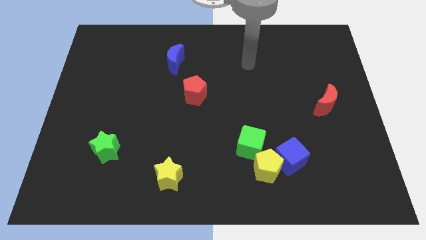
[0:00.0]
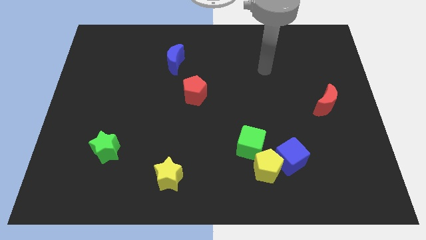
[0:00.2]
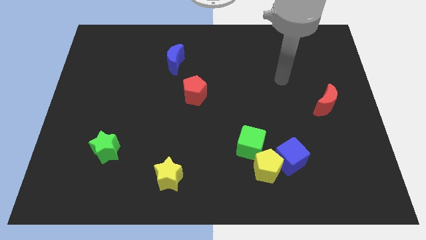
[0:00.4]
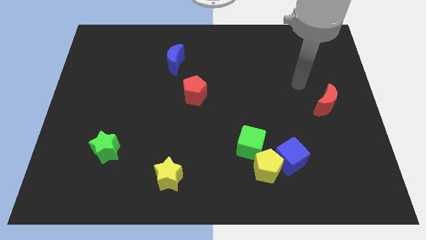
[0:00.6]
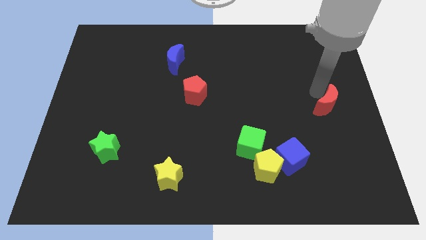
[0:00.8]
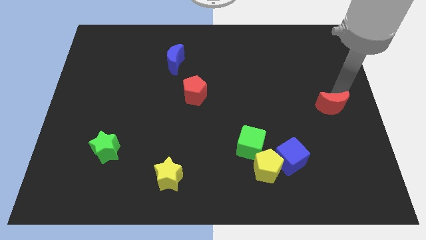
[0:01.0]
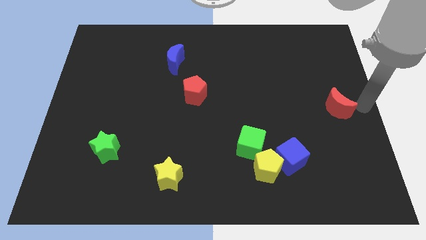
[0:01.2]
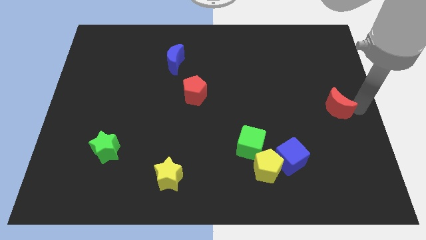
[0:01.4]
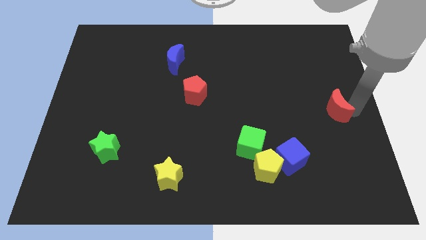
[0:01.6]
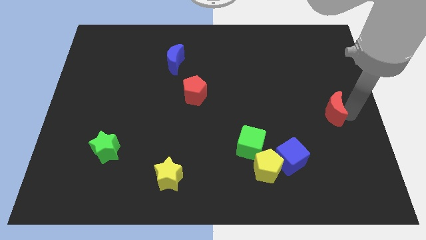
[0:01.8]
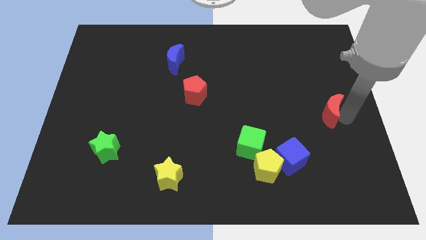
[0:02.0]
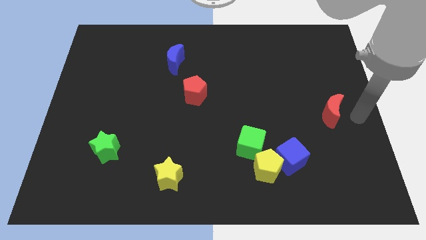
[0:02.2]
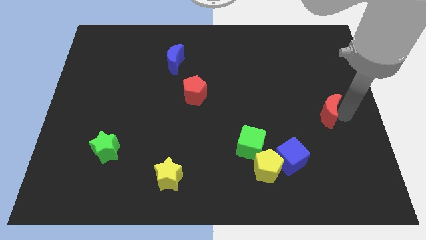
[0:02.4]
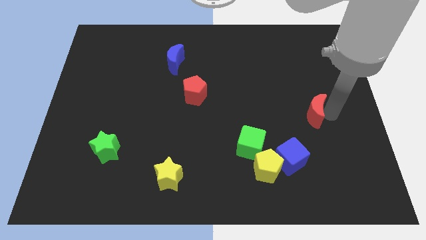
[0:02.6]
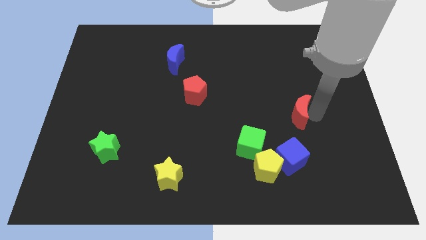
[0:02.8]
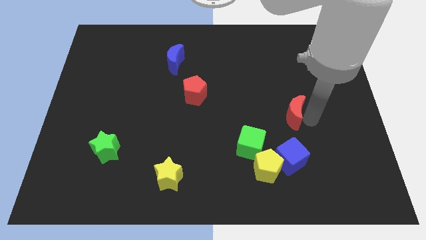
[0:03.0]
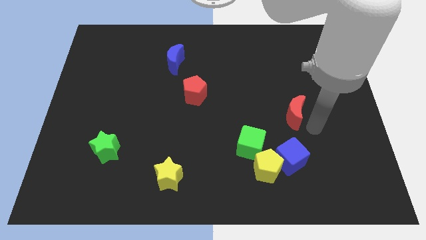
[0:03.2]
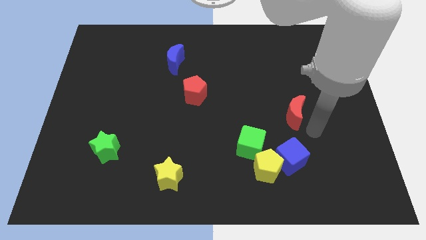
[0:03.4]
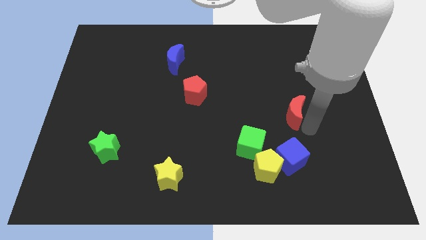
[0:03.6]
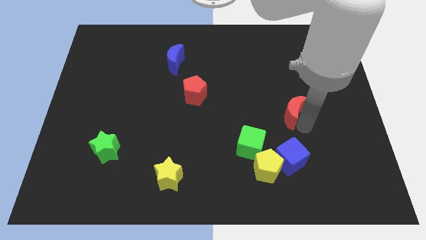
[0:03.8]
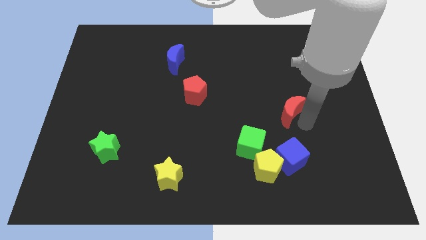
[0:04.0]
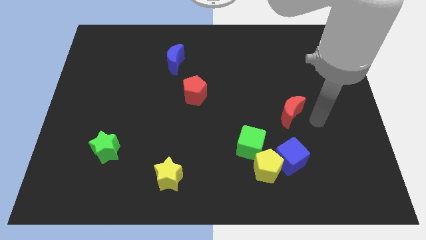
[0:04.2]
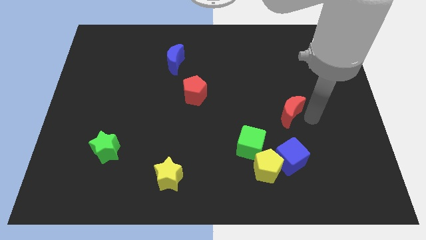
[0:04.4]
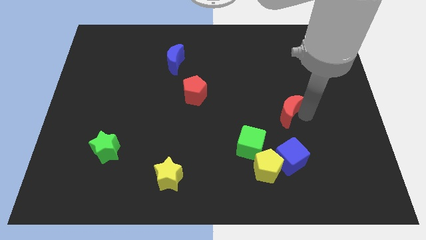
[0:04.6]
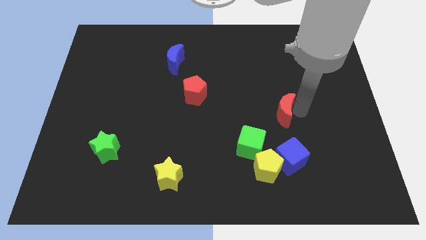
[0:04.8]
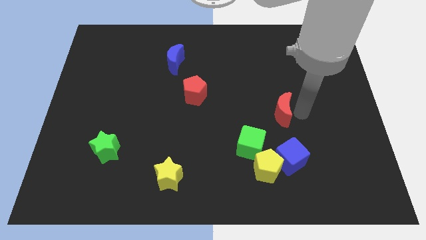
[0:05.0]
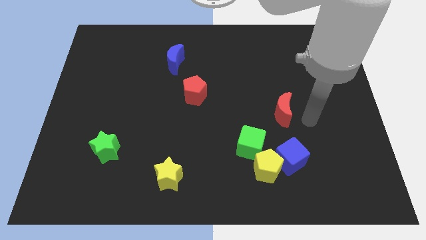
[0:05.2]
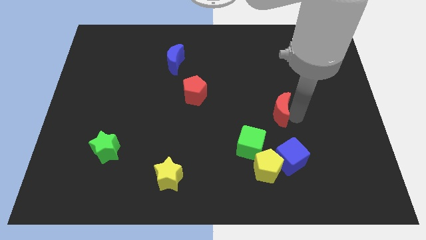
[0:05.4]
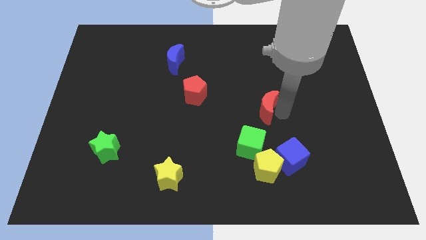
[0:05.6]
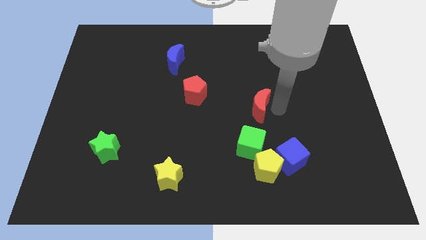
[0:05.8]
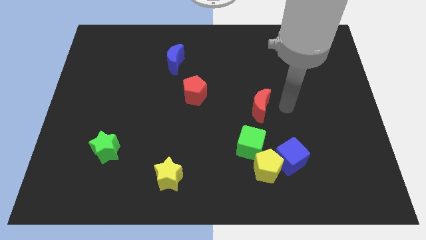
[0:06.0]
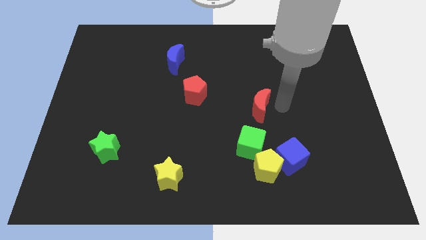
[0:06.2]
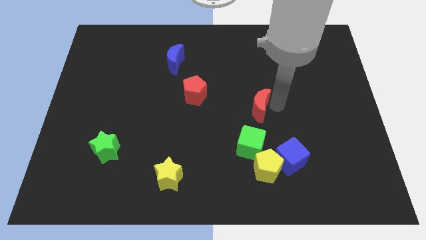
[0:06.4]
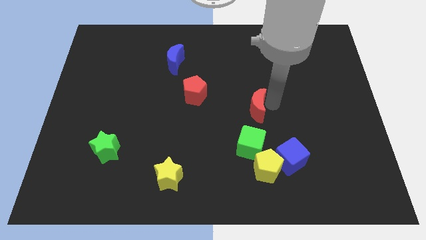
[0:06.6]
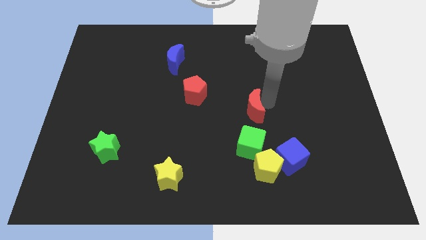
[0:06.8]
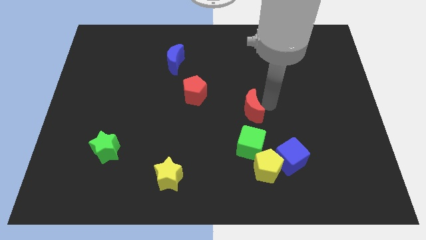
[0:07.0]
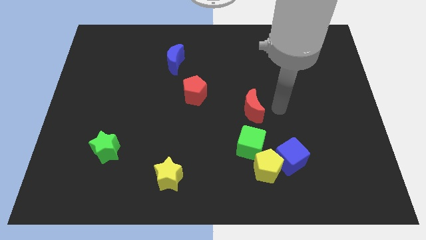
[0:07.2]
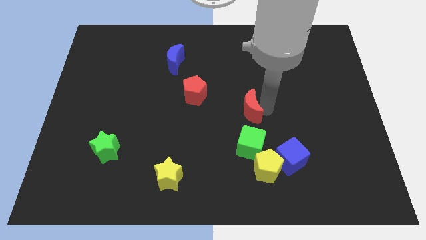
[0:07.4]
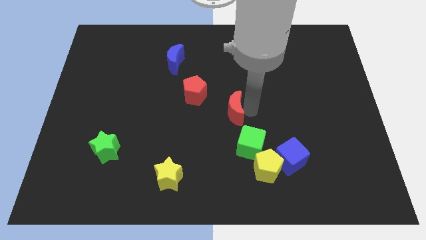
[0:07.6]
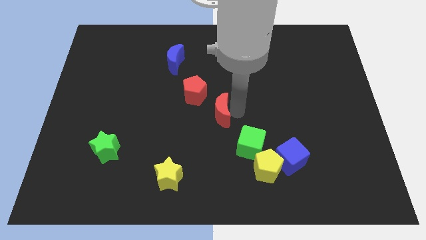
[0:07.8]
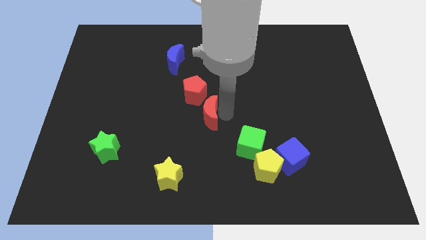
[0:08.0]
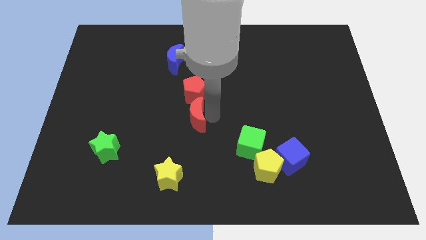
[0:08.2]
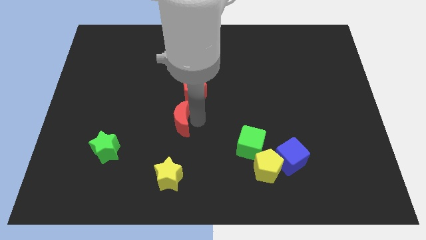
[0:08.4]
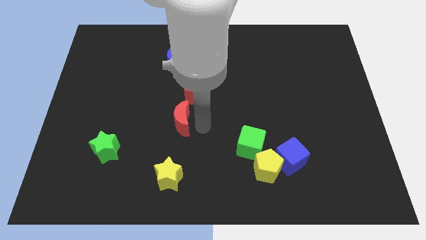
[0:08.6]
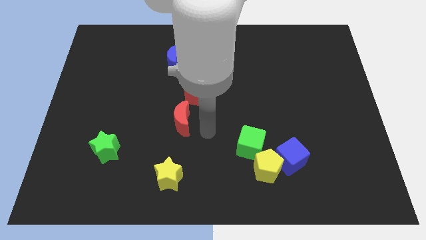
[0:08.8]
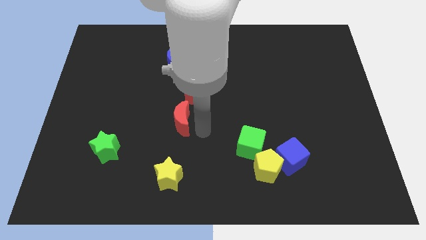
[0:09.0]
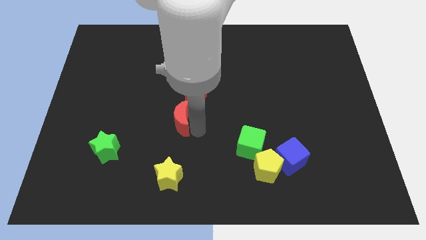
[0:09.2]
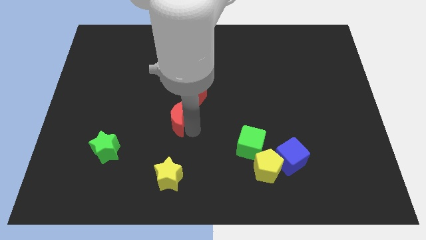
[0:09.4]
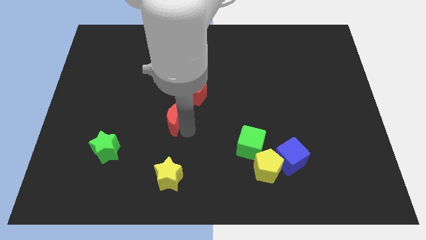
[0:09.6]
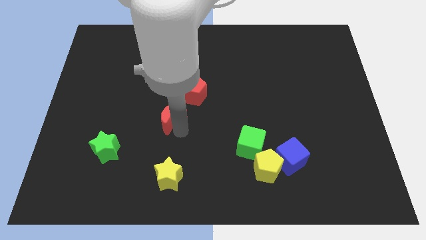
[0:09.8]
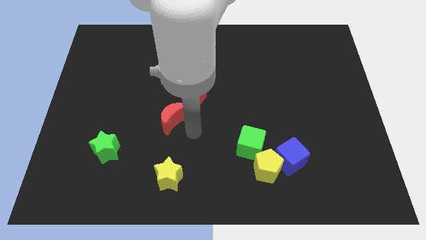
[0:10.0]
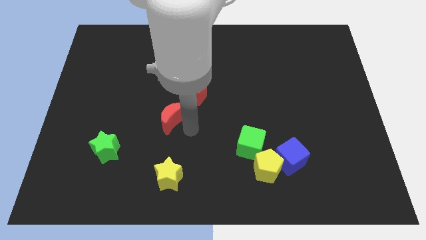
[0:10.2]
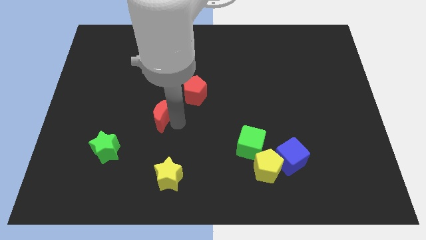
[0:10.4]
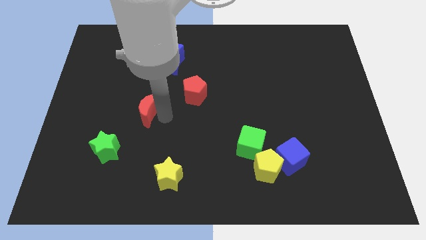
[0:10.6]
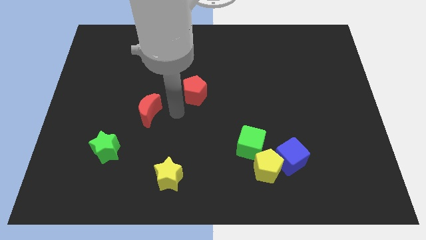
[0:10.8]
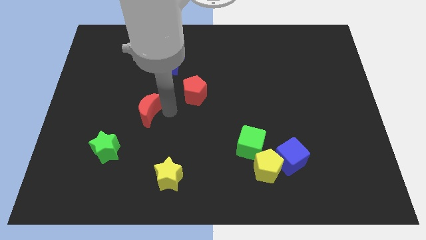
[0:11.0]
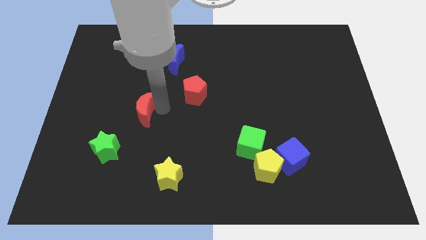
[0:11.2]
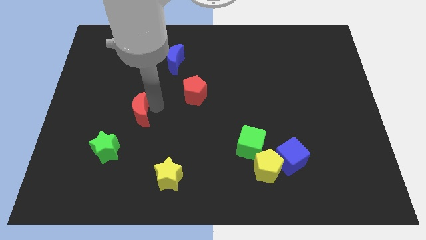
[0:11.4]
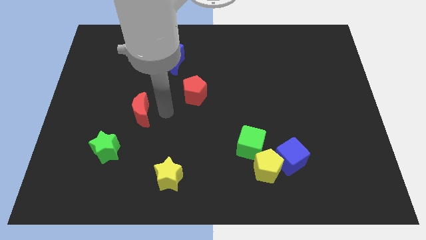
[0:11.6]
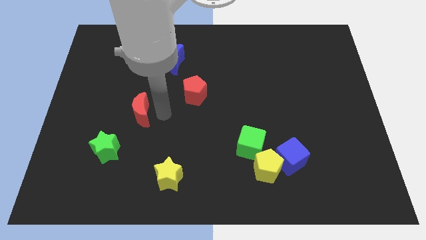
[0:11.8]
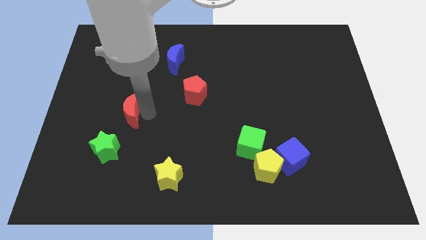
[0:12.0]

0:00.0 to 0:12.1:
slide the red moon to the top side of the green star

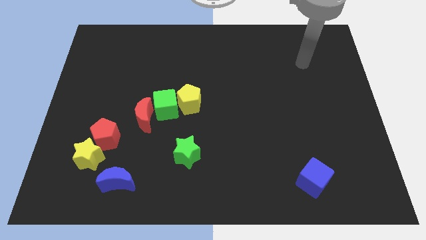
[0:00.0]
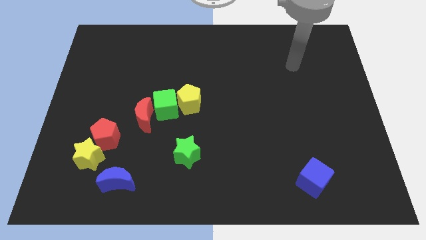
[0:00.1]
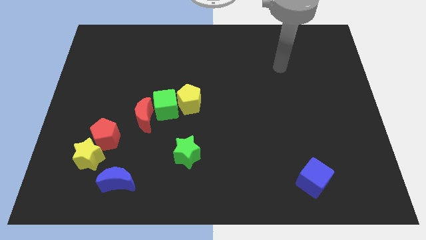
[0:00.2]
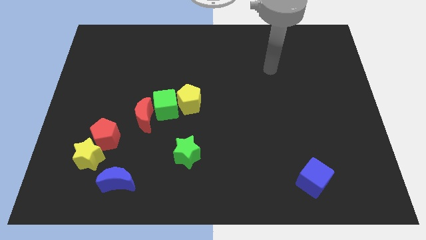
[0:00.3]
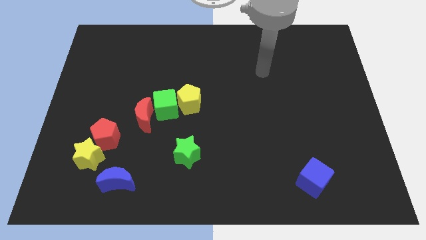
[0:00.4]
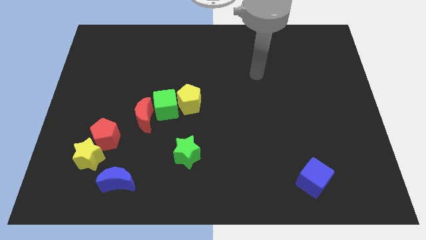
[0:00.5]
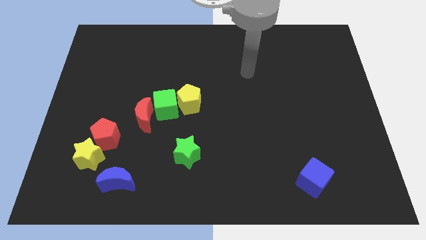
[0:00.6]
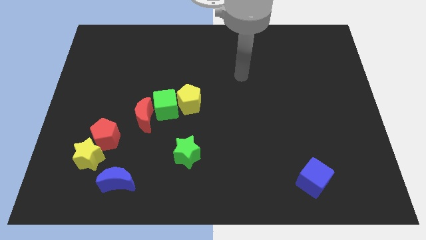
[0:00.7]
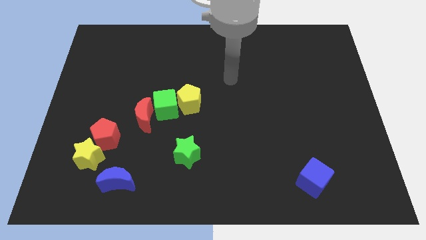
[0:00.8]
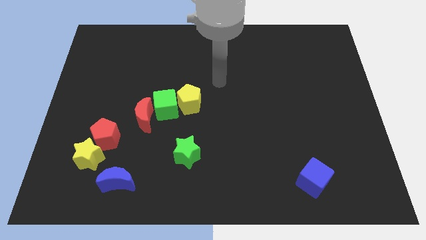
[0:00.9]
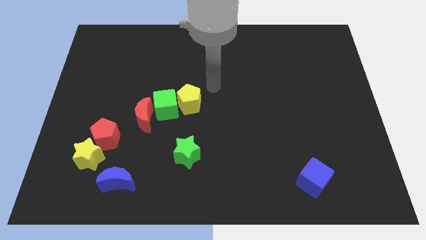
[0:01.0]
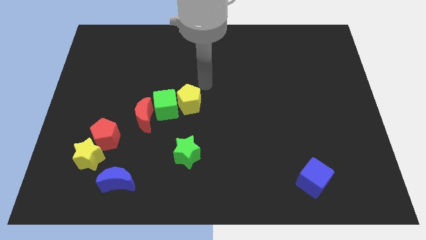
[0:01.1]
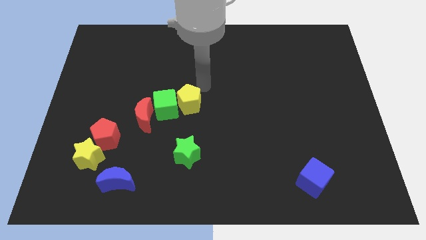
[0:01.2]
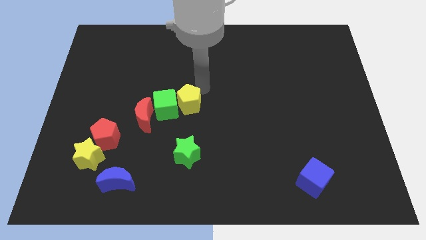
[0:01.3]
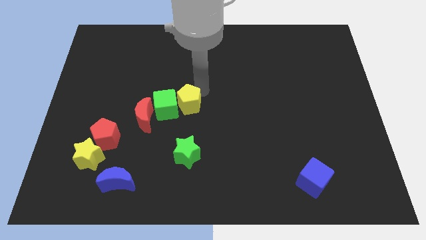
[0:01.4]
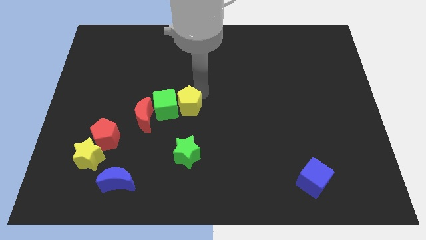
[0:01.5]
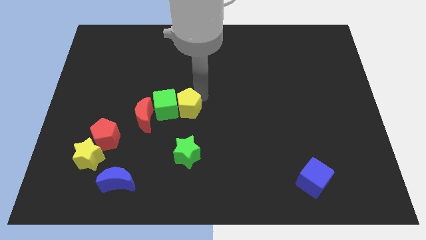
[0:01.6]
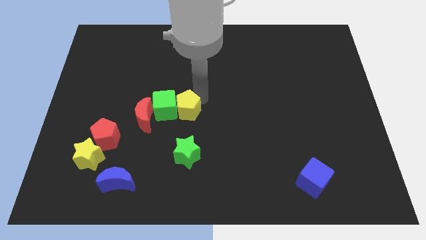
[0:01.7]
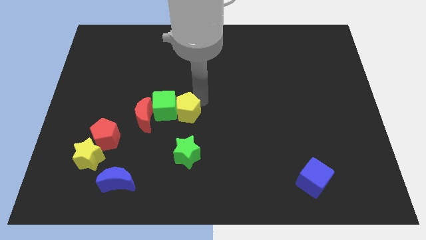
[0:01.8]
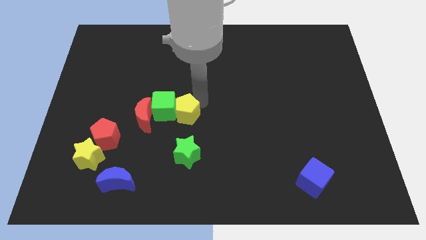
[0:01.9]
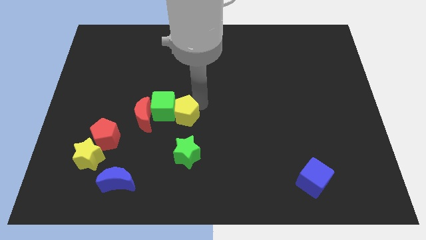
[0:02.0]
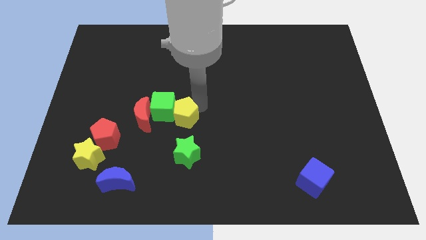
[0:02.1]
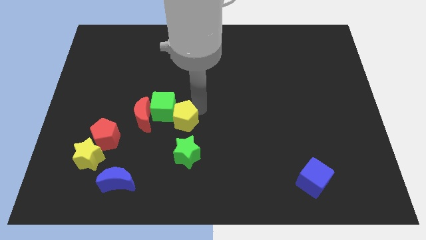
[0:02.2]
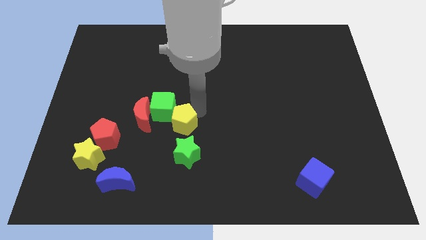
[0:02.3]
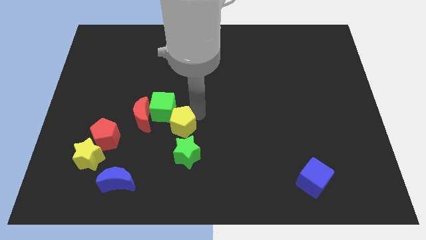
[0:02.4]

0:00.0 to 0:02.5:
move the yellow pentagon diagonally up and to the left of the green star
